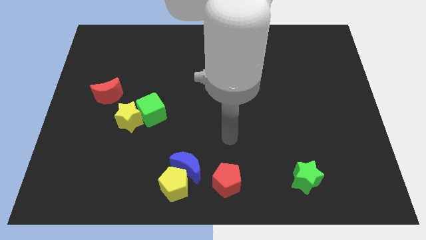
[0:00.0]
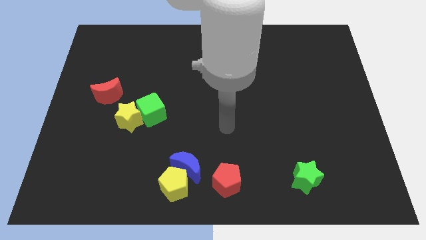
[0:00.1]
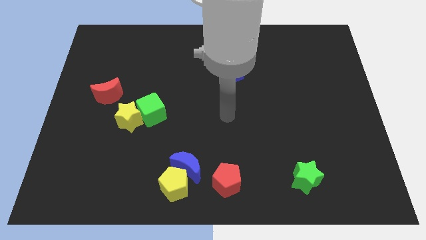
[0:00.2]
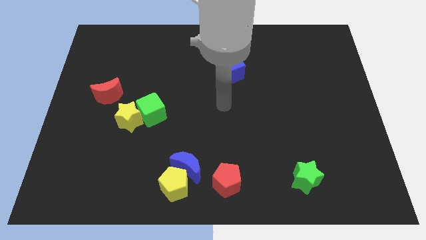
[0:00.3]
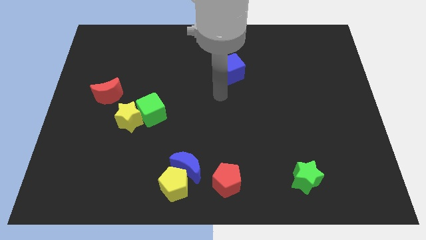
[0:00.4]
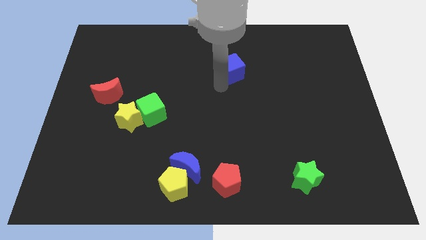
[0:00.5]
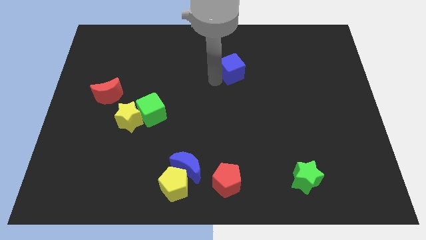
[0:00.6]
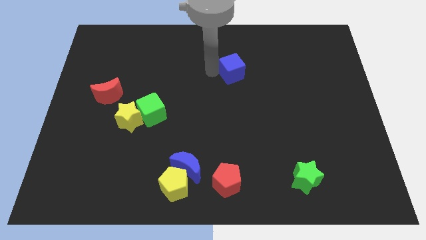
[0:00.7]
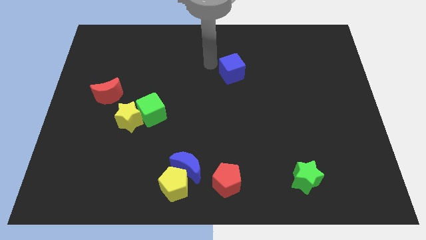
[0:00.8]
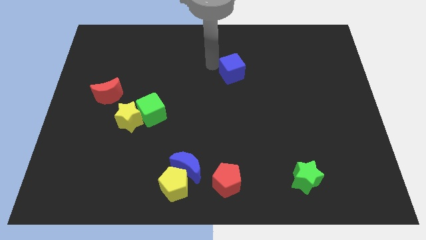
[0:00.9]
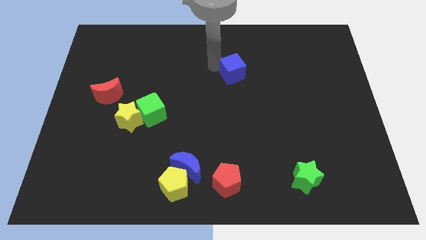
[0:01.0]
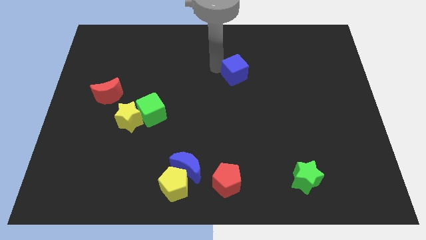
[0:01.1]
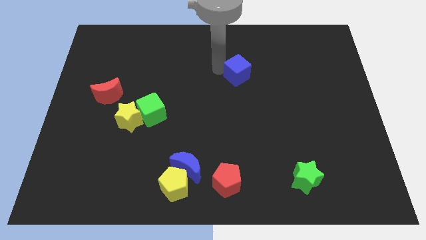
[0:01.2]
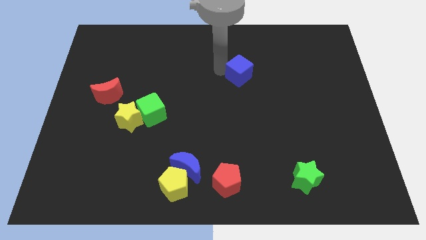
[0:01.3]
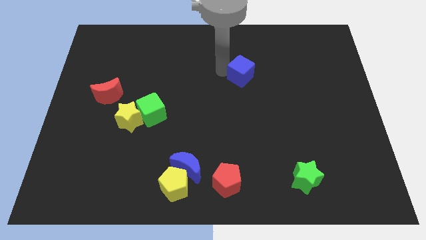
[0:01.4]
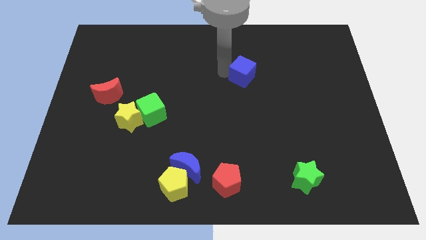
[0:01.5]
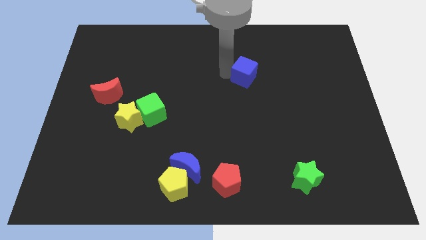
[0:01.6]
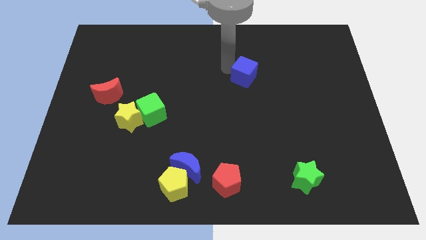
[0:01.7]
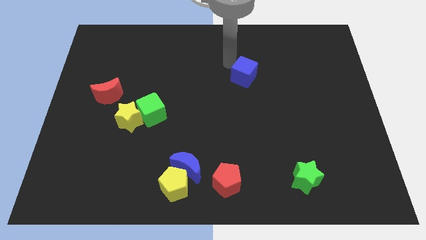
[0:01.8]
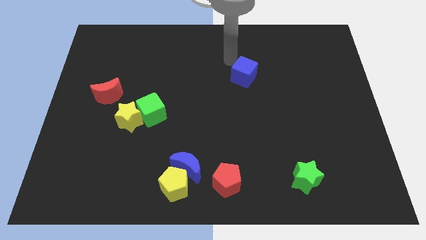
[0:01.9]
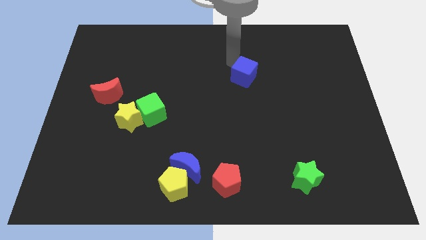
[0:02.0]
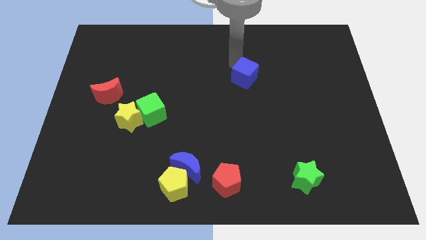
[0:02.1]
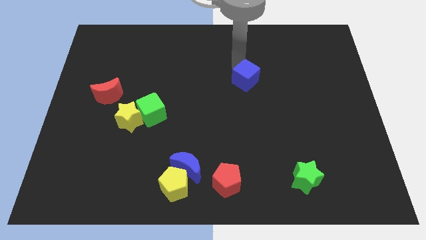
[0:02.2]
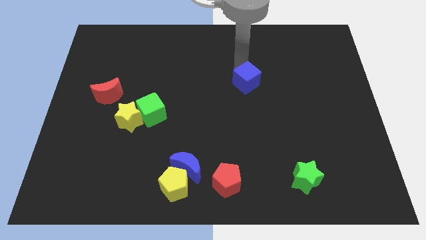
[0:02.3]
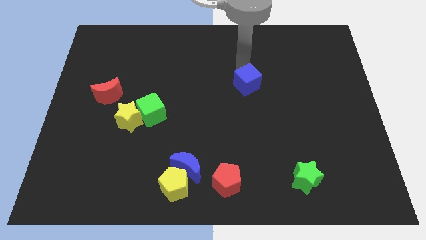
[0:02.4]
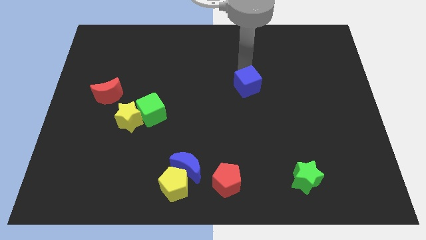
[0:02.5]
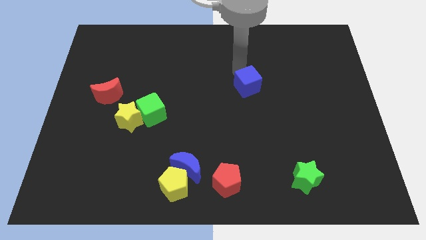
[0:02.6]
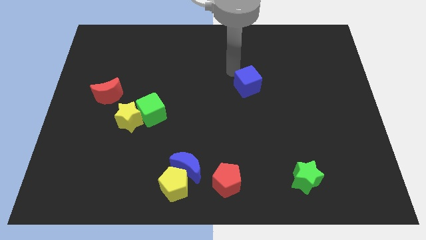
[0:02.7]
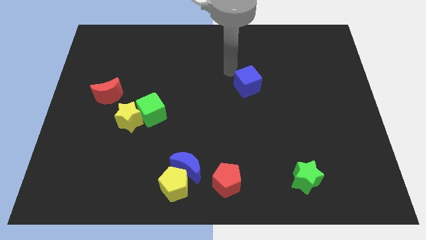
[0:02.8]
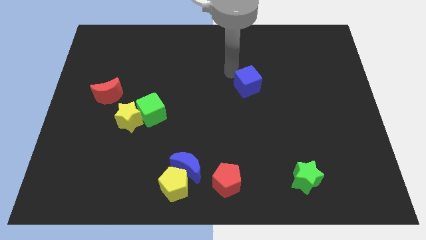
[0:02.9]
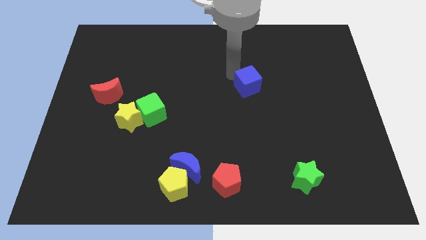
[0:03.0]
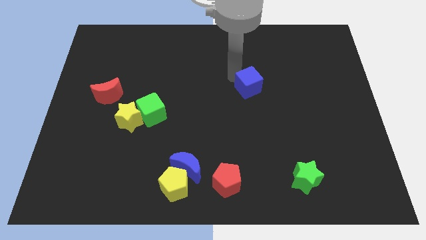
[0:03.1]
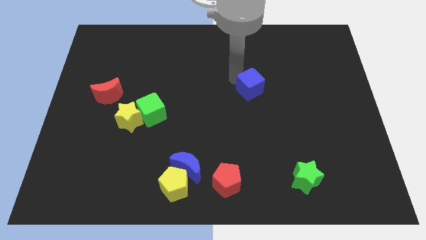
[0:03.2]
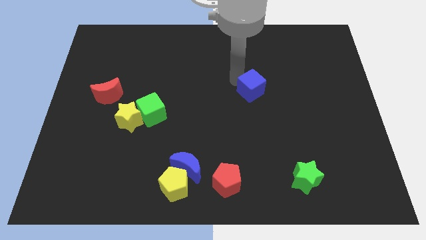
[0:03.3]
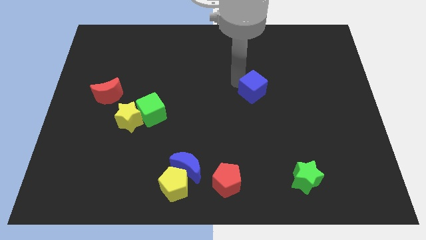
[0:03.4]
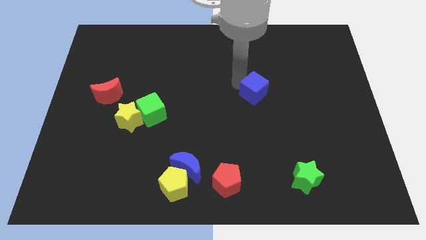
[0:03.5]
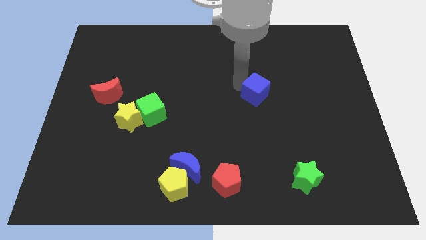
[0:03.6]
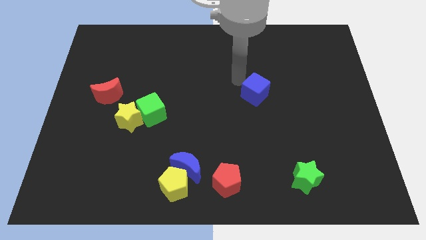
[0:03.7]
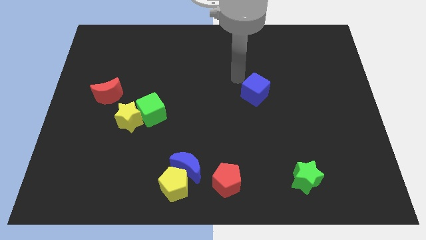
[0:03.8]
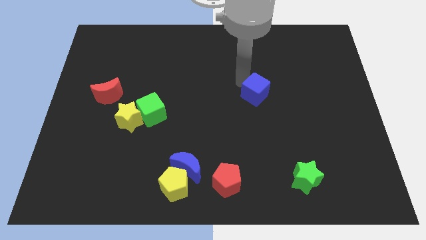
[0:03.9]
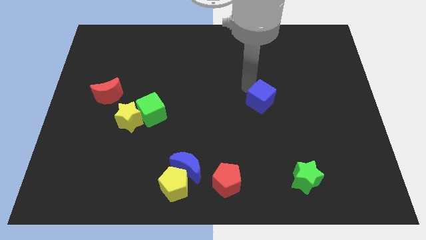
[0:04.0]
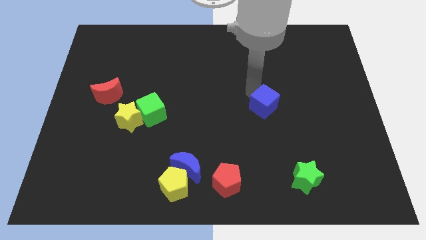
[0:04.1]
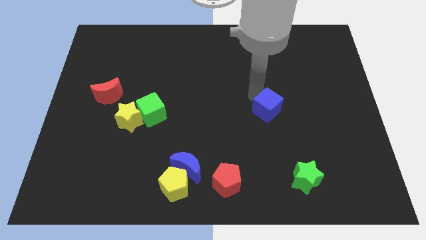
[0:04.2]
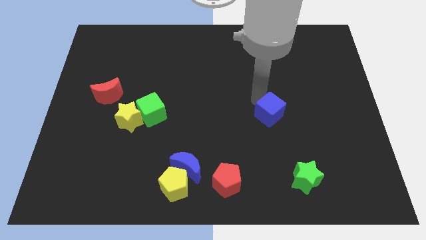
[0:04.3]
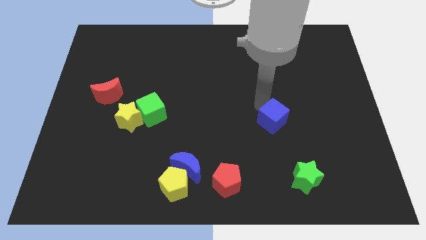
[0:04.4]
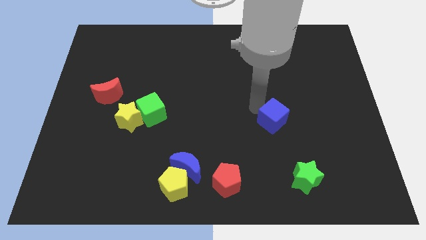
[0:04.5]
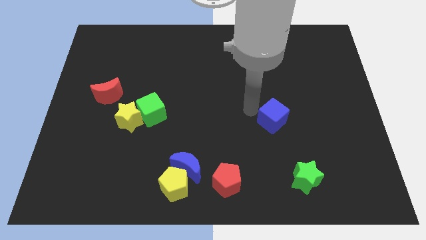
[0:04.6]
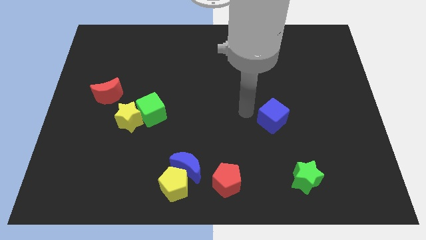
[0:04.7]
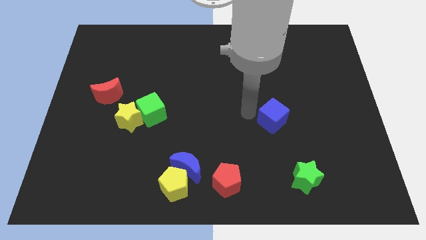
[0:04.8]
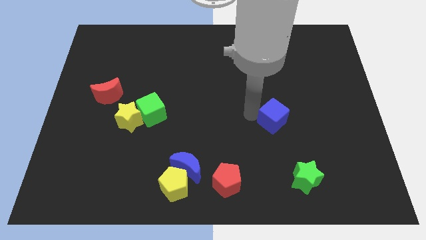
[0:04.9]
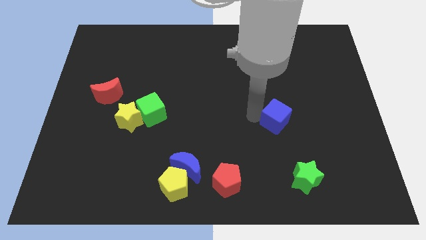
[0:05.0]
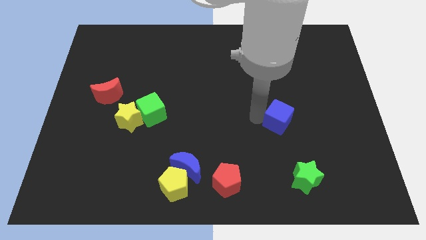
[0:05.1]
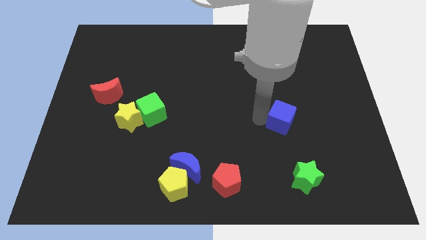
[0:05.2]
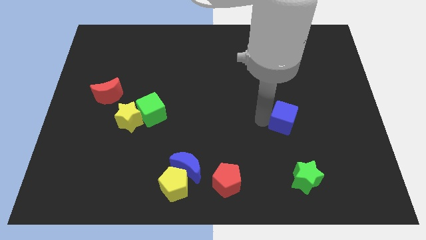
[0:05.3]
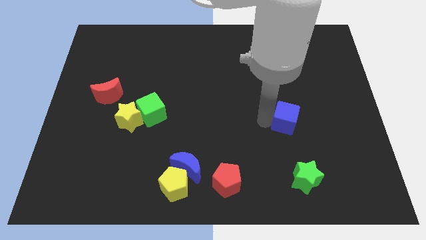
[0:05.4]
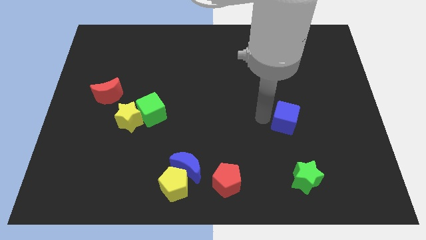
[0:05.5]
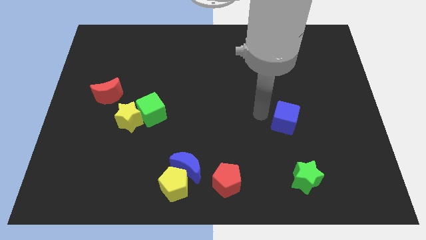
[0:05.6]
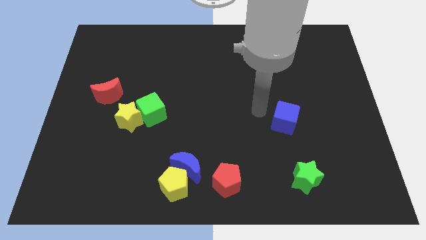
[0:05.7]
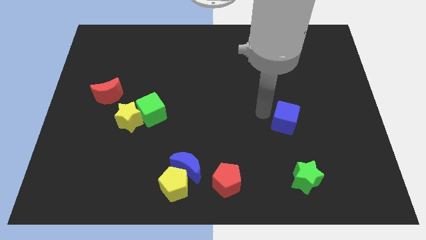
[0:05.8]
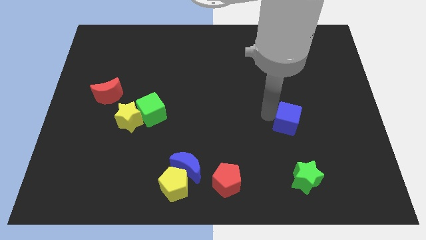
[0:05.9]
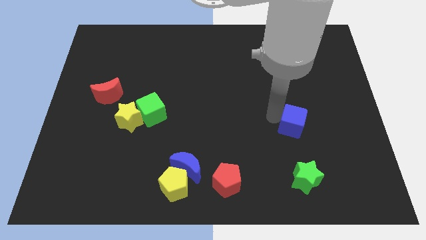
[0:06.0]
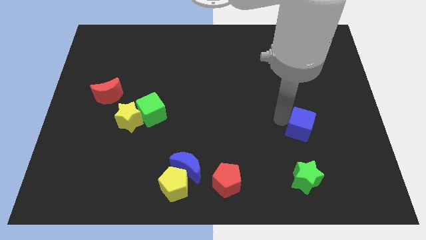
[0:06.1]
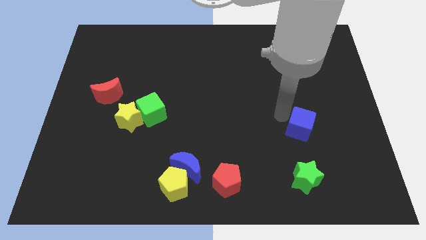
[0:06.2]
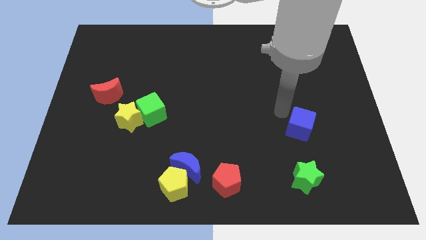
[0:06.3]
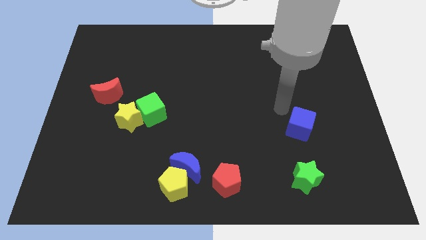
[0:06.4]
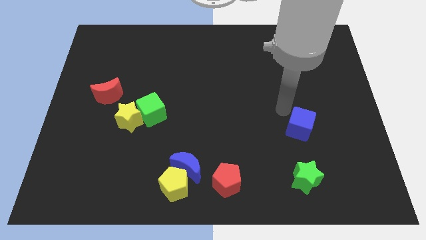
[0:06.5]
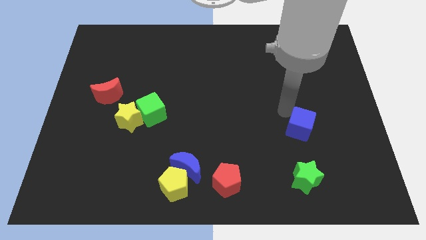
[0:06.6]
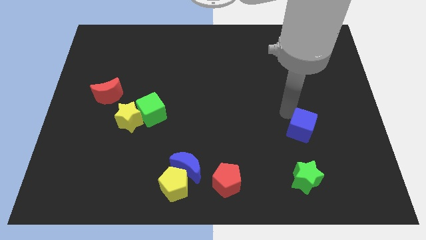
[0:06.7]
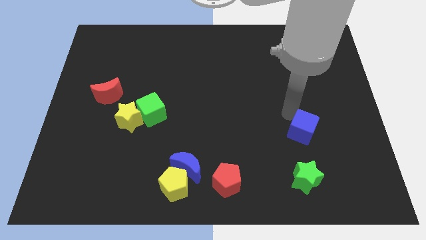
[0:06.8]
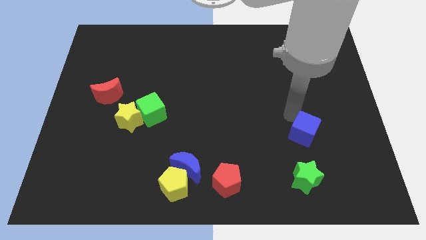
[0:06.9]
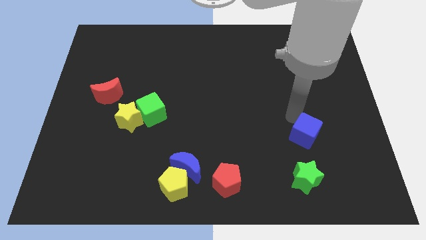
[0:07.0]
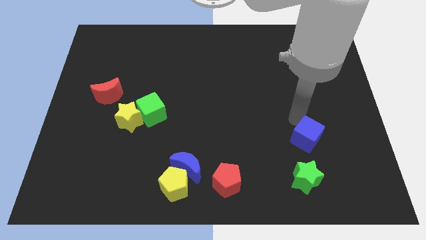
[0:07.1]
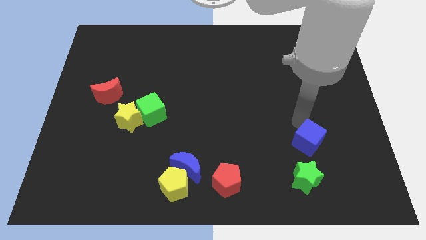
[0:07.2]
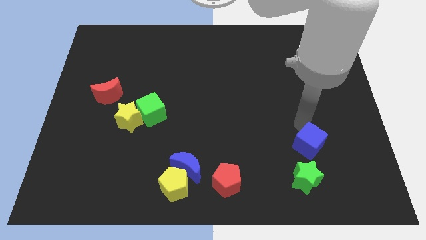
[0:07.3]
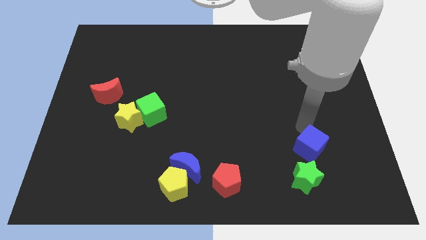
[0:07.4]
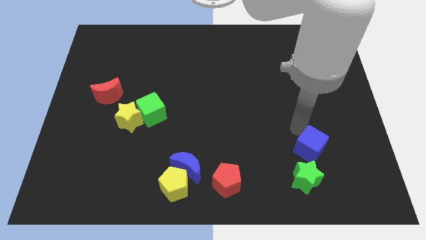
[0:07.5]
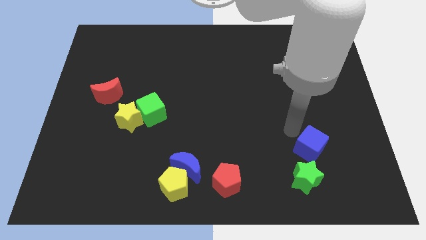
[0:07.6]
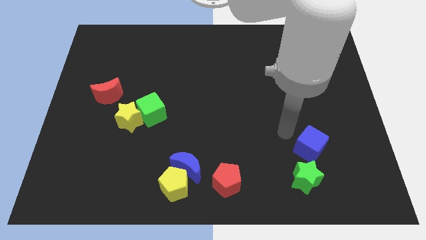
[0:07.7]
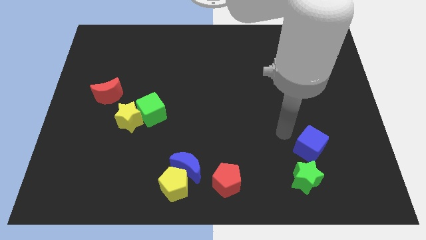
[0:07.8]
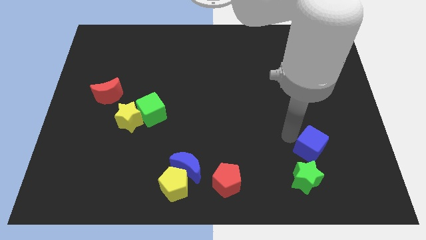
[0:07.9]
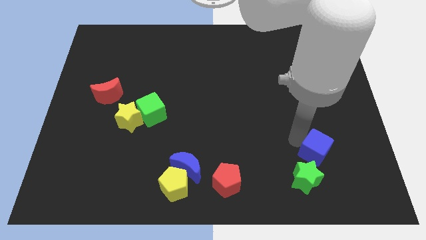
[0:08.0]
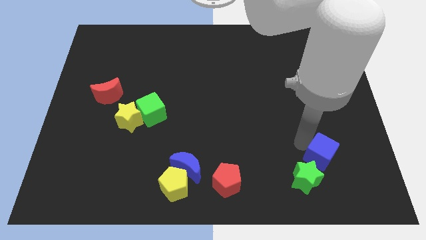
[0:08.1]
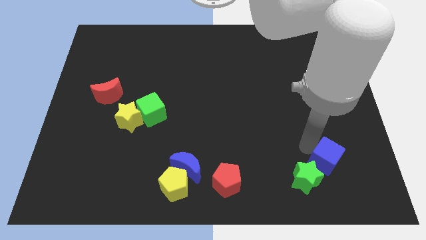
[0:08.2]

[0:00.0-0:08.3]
move the blue cube to the right side of the green star
